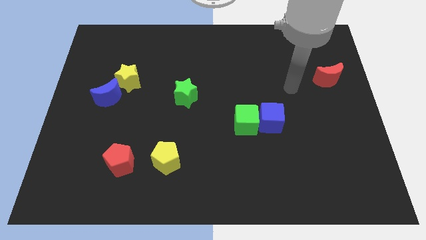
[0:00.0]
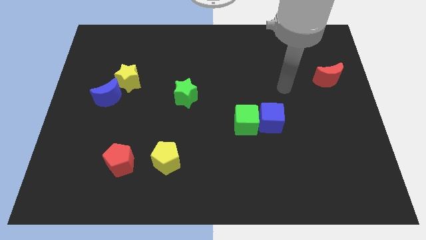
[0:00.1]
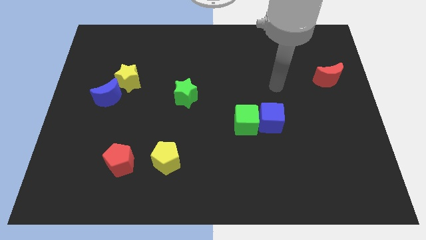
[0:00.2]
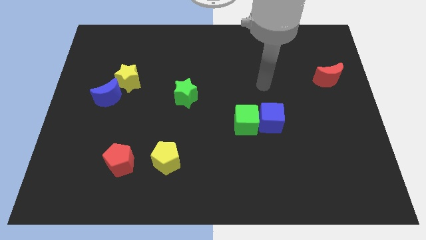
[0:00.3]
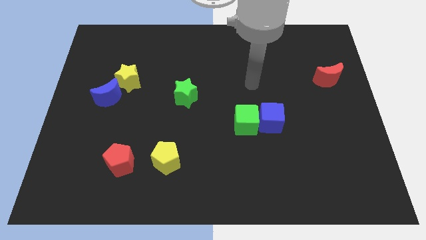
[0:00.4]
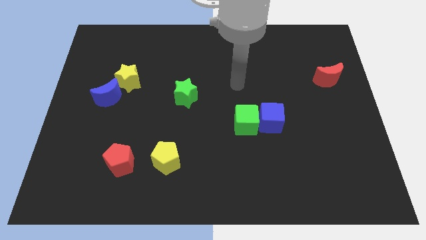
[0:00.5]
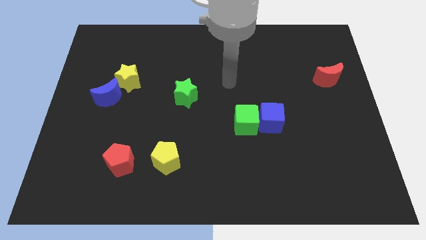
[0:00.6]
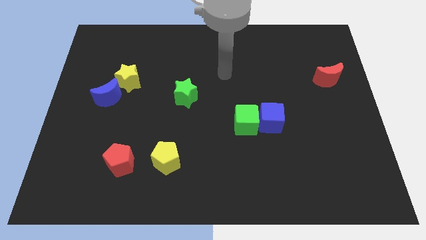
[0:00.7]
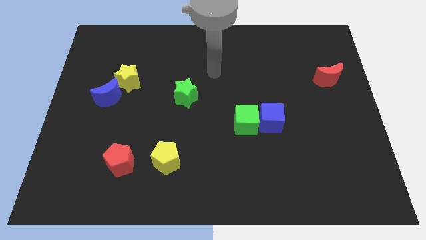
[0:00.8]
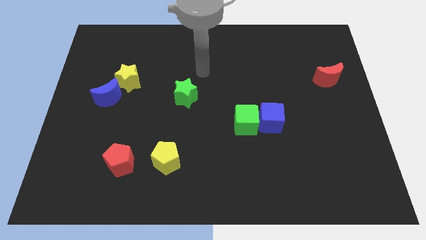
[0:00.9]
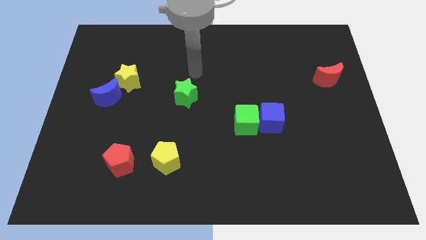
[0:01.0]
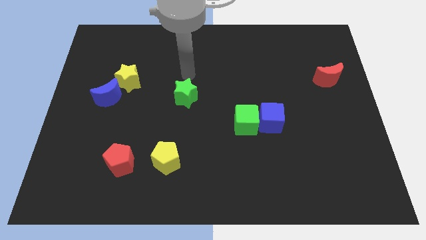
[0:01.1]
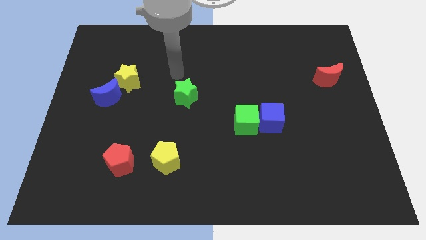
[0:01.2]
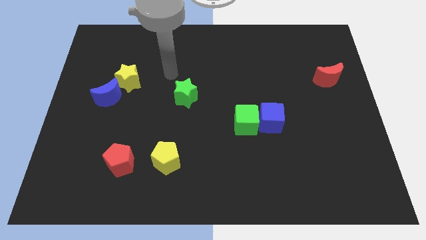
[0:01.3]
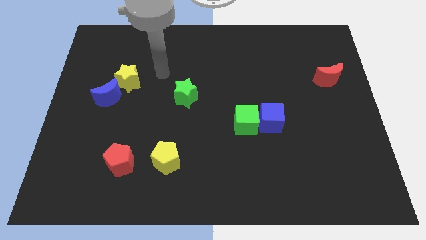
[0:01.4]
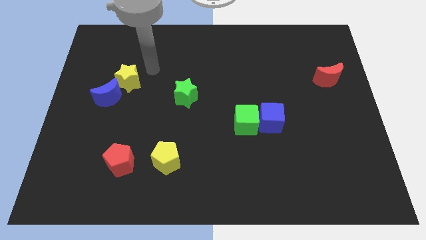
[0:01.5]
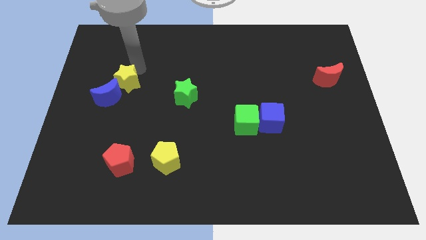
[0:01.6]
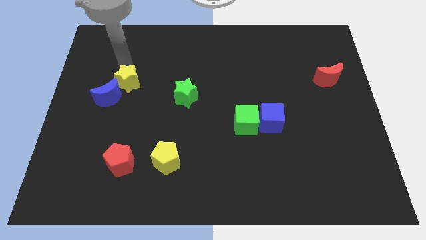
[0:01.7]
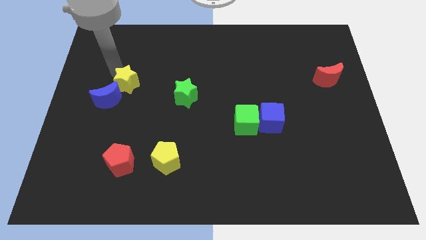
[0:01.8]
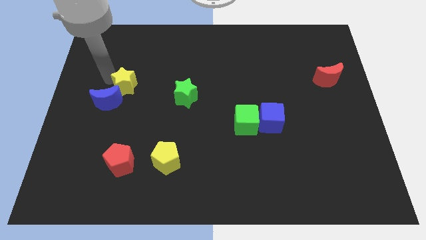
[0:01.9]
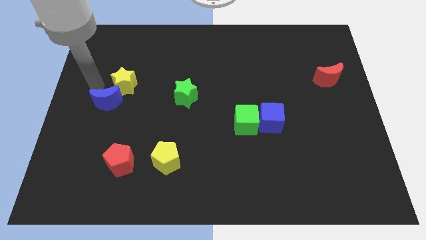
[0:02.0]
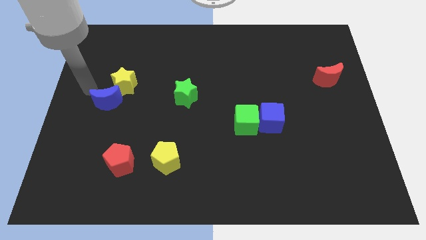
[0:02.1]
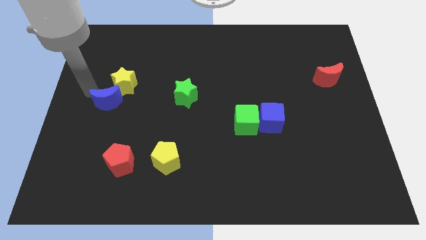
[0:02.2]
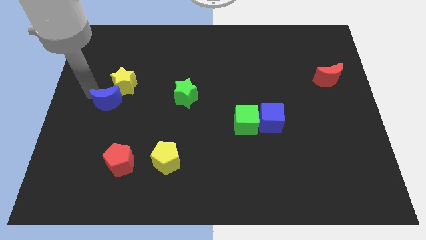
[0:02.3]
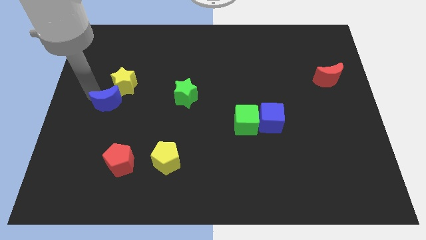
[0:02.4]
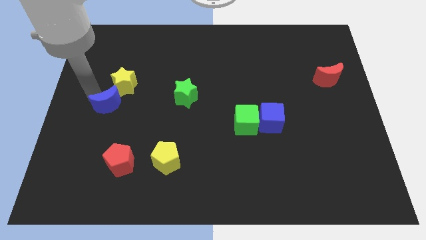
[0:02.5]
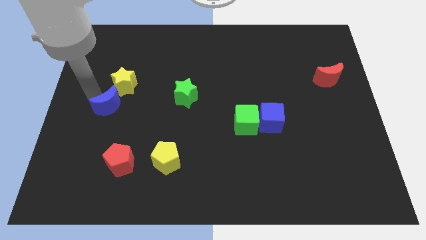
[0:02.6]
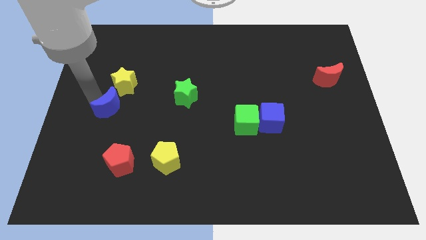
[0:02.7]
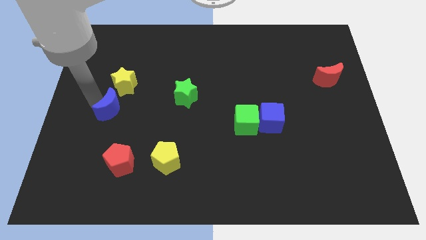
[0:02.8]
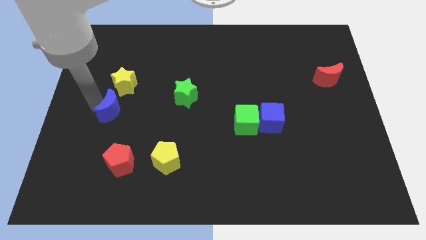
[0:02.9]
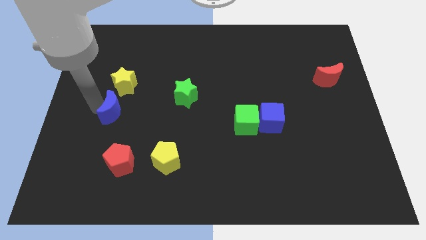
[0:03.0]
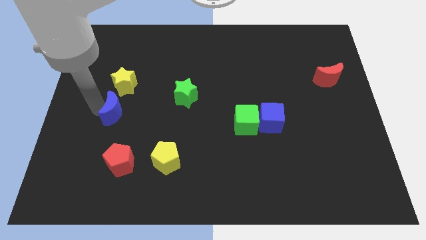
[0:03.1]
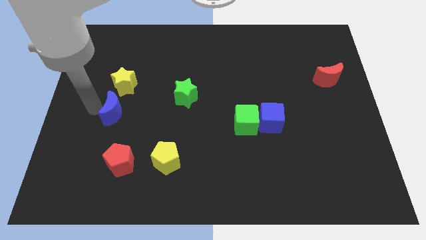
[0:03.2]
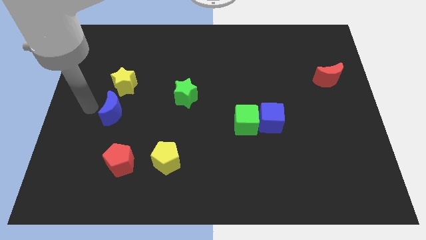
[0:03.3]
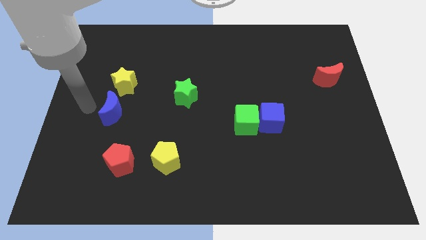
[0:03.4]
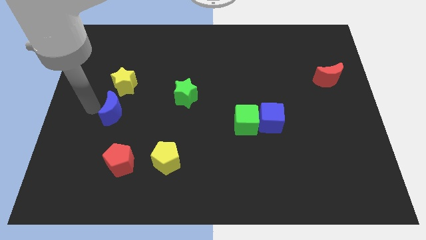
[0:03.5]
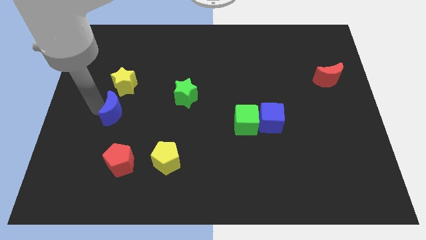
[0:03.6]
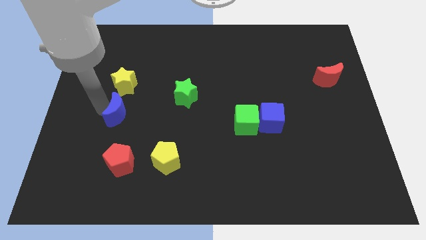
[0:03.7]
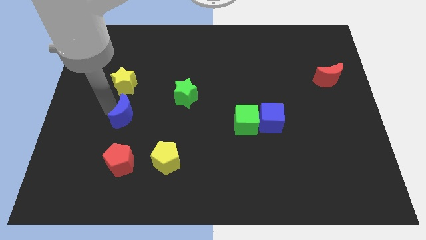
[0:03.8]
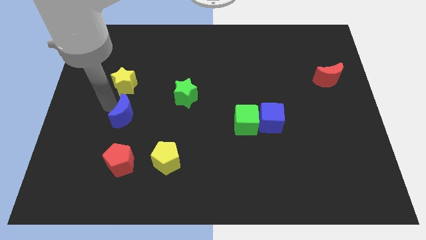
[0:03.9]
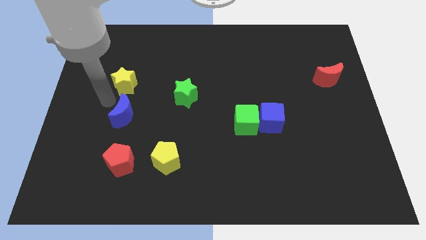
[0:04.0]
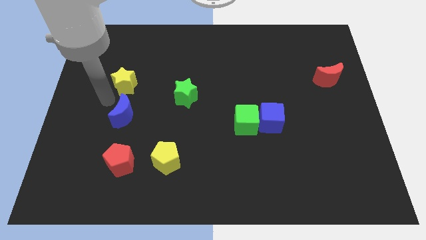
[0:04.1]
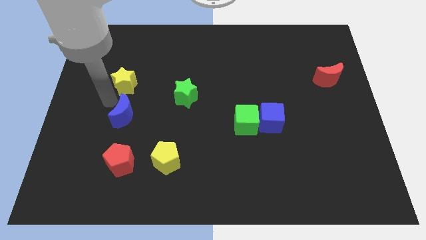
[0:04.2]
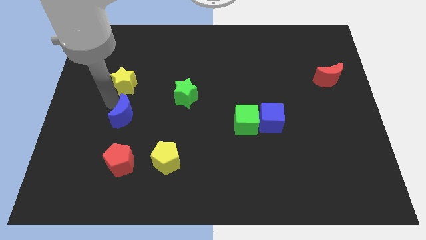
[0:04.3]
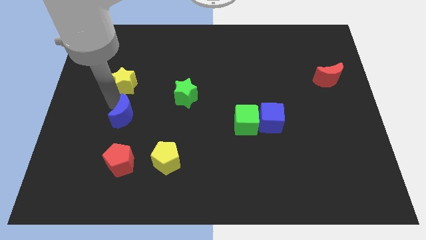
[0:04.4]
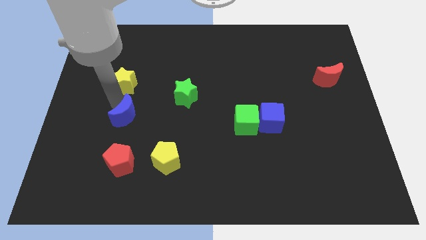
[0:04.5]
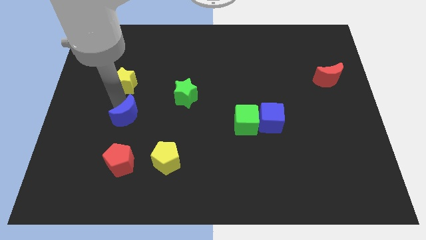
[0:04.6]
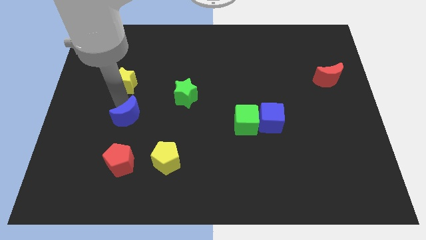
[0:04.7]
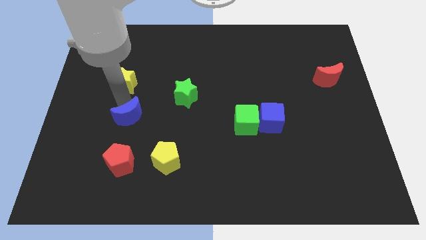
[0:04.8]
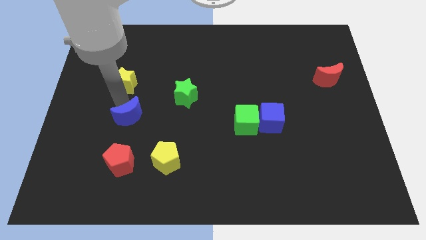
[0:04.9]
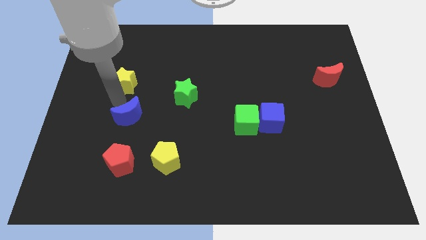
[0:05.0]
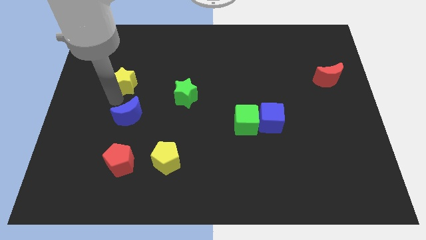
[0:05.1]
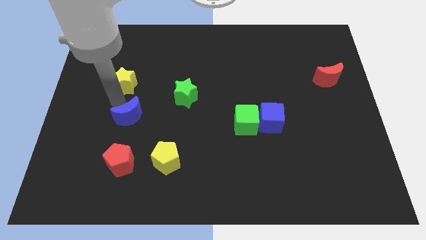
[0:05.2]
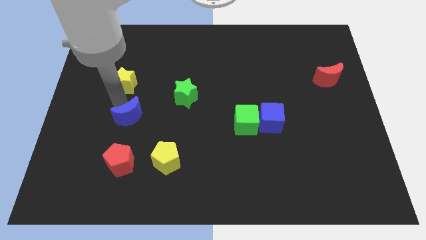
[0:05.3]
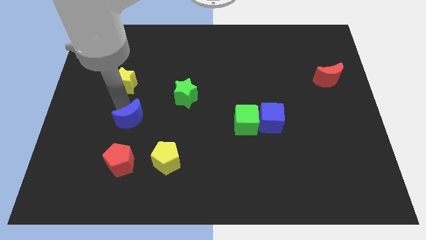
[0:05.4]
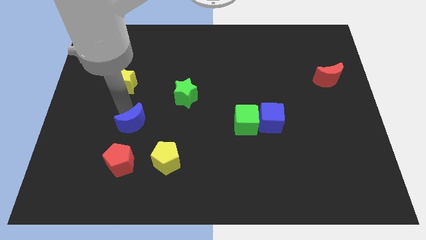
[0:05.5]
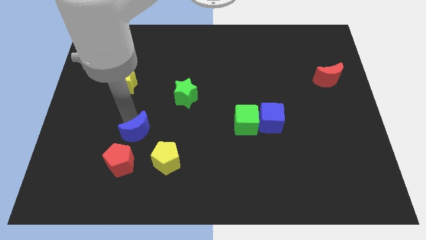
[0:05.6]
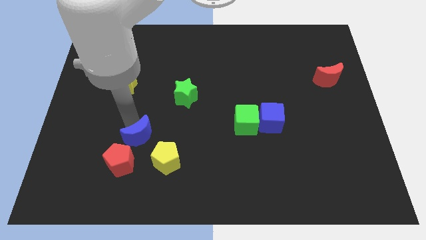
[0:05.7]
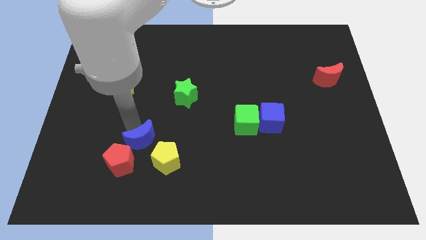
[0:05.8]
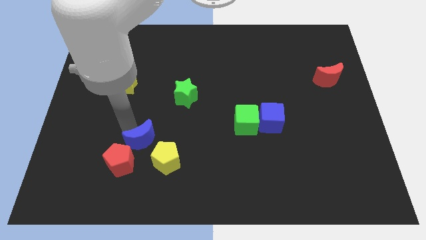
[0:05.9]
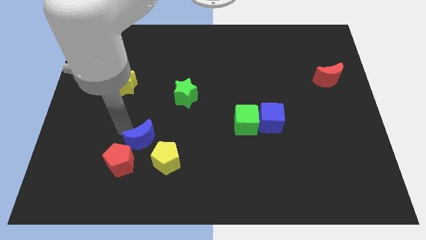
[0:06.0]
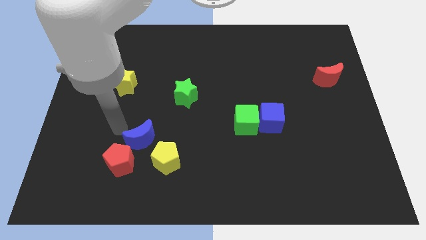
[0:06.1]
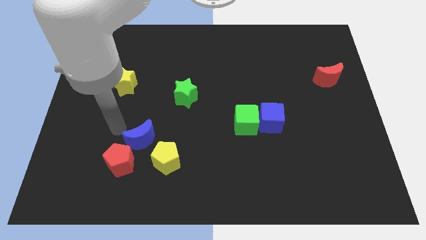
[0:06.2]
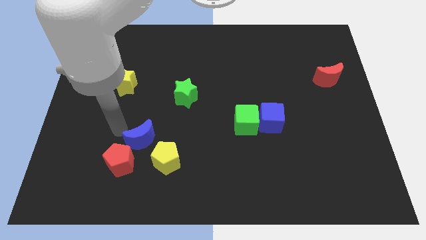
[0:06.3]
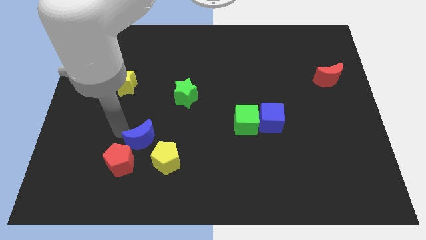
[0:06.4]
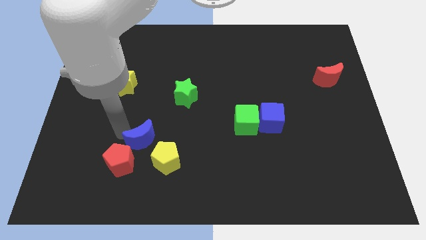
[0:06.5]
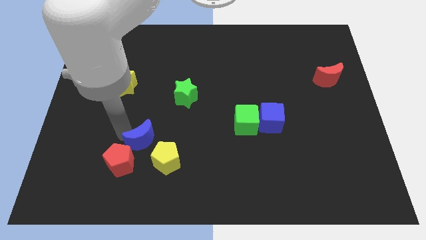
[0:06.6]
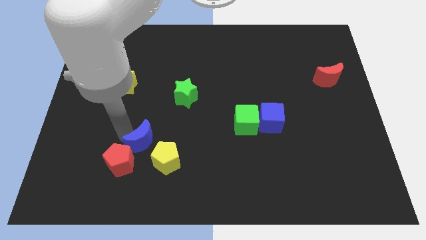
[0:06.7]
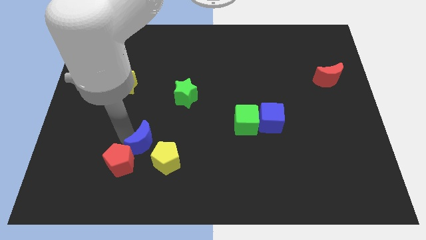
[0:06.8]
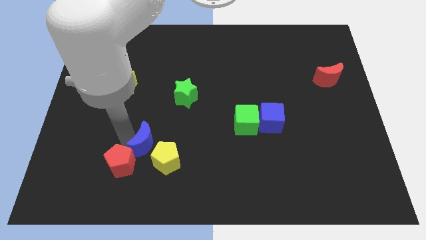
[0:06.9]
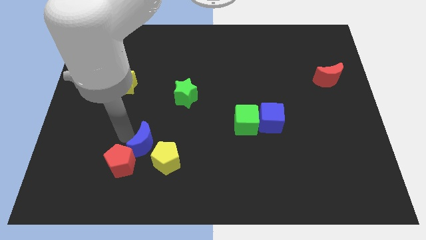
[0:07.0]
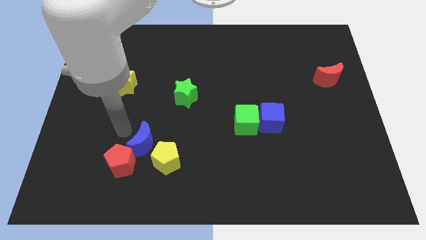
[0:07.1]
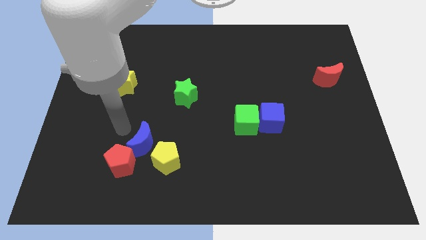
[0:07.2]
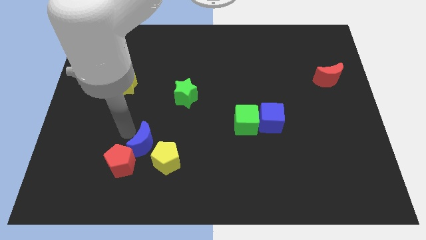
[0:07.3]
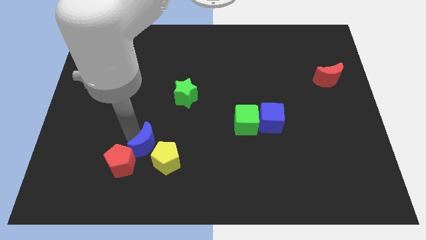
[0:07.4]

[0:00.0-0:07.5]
push the blue moon next to the yellow pentagon
